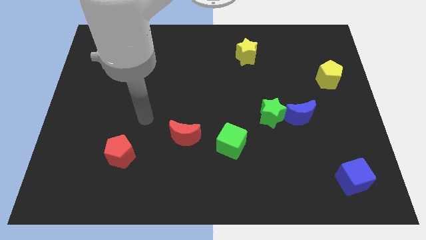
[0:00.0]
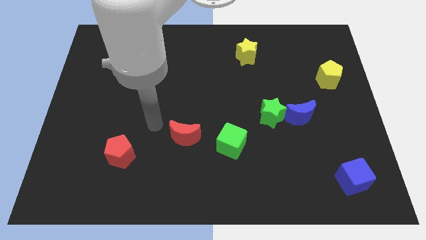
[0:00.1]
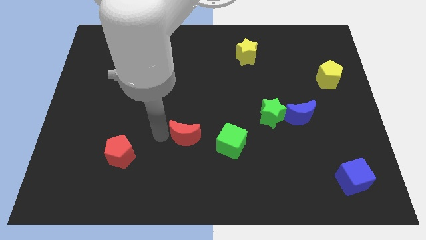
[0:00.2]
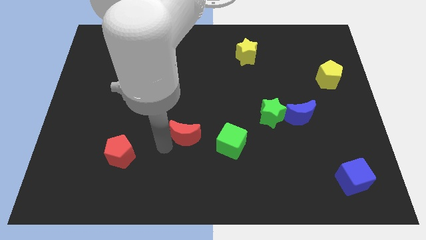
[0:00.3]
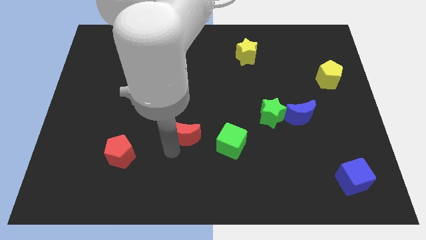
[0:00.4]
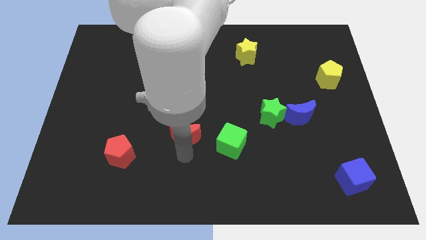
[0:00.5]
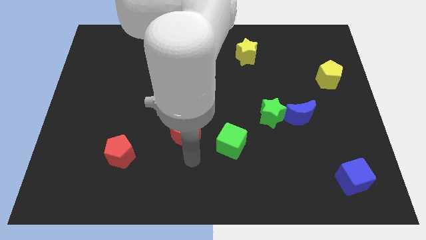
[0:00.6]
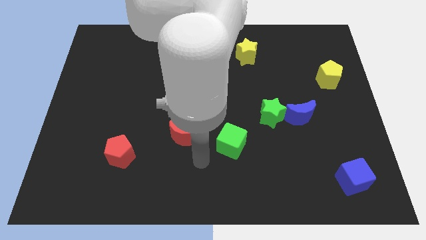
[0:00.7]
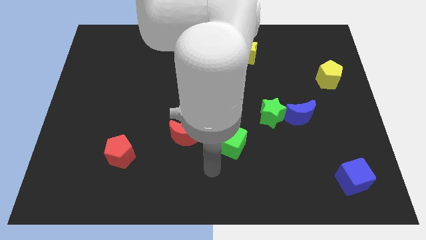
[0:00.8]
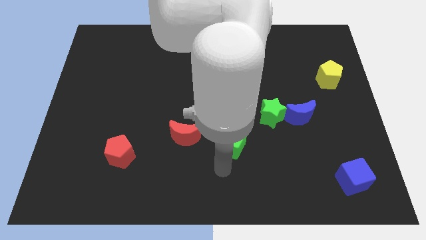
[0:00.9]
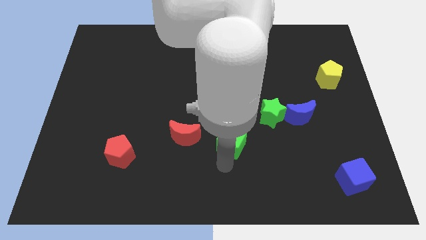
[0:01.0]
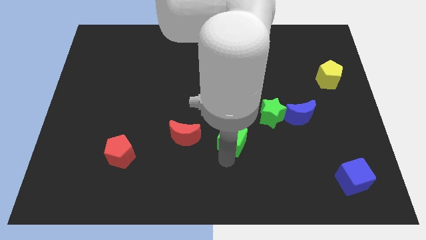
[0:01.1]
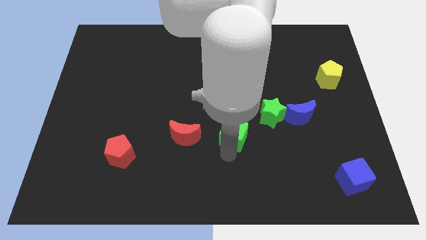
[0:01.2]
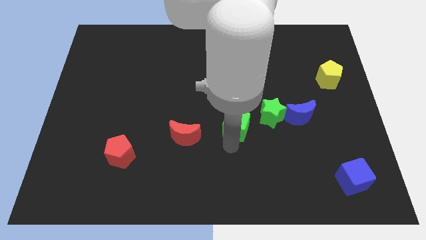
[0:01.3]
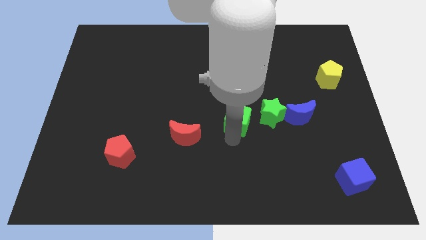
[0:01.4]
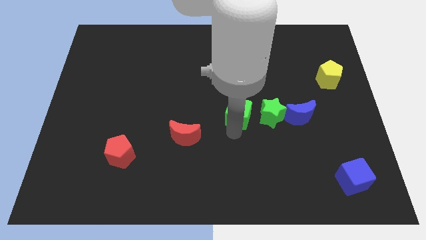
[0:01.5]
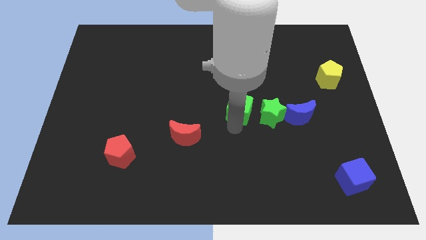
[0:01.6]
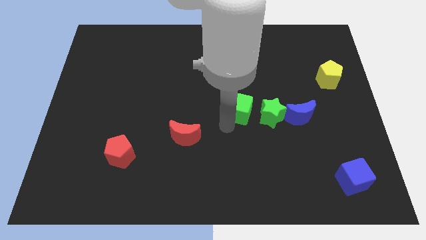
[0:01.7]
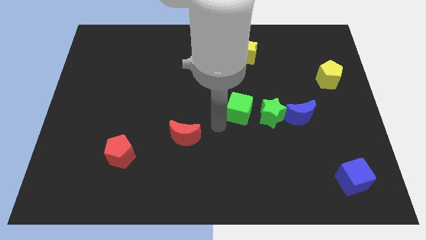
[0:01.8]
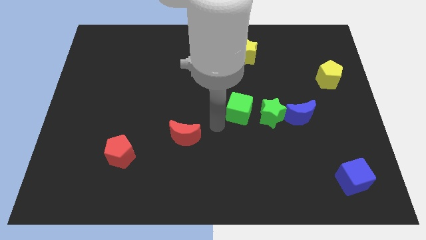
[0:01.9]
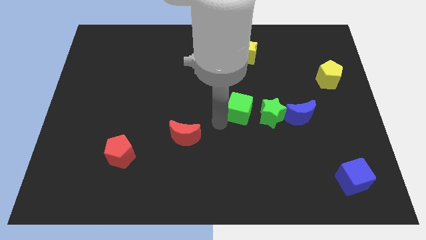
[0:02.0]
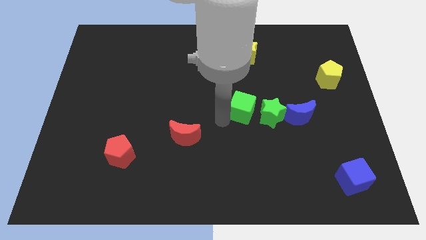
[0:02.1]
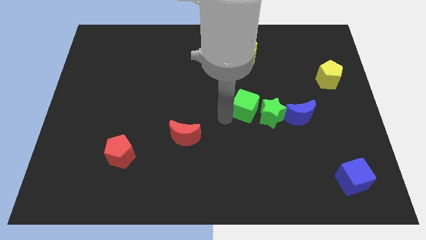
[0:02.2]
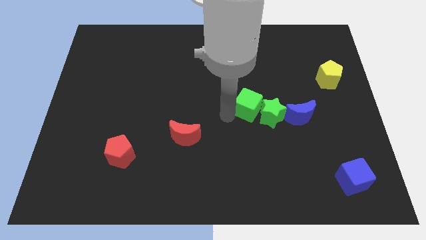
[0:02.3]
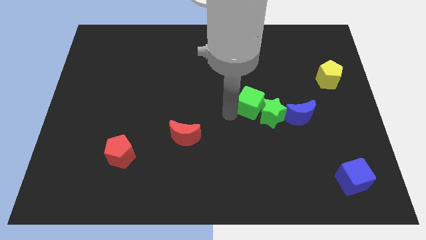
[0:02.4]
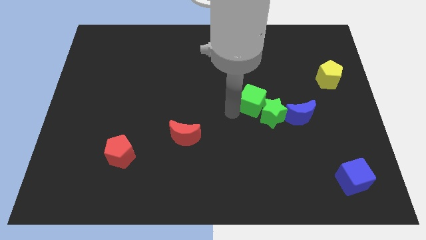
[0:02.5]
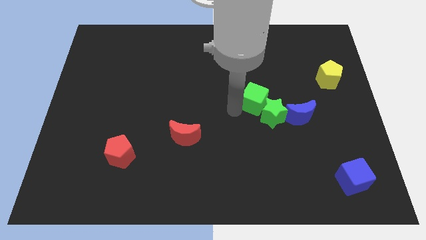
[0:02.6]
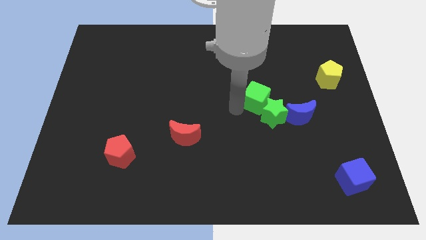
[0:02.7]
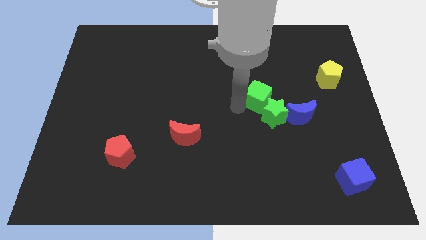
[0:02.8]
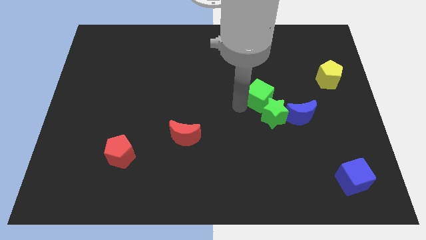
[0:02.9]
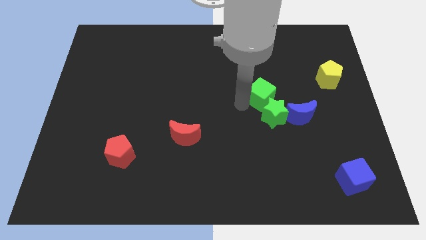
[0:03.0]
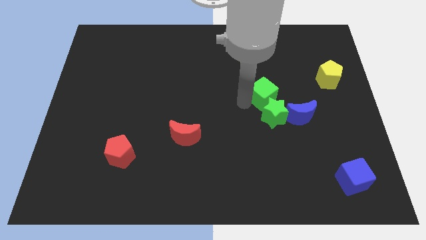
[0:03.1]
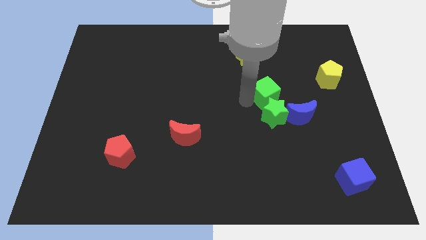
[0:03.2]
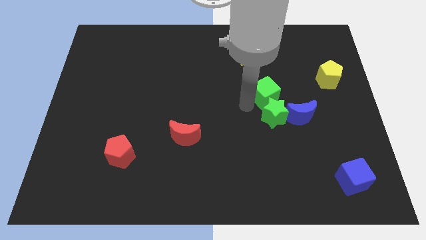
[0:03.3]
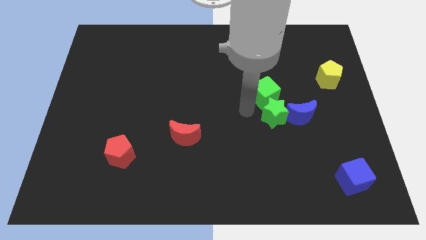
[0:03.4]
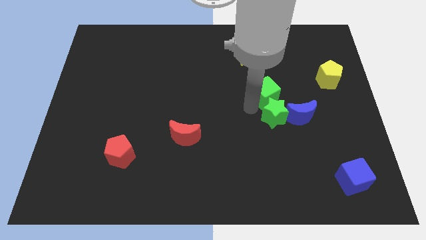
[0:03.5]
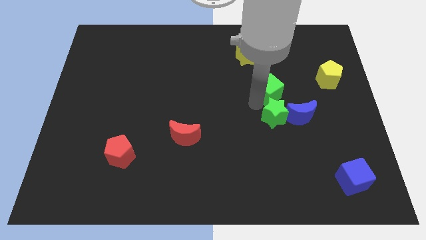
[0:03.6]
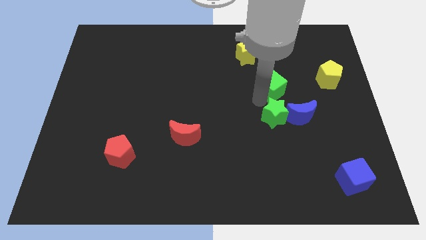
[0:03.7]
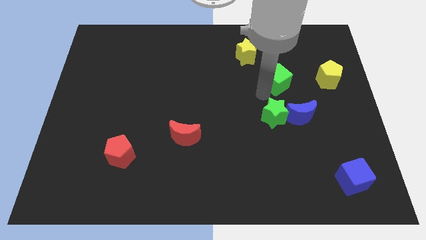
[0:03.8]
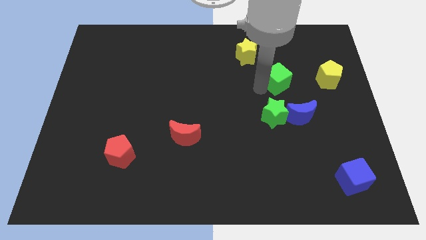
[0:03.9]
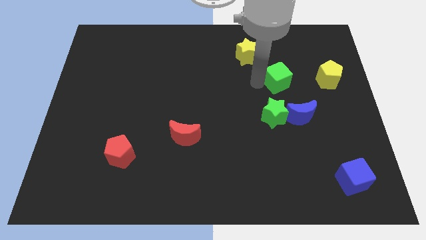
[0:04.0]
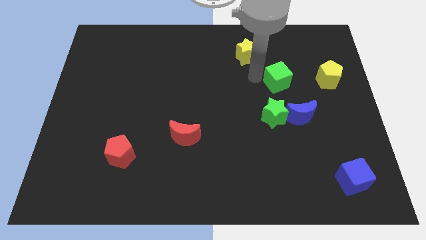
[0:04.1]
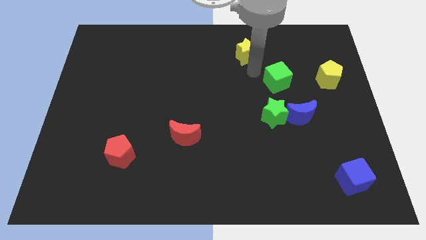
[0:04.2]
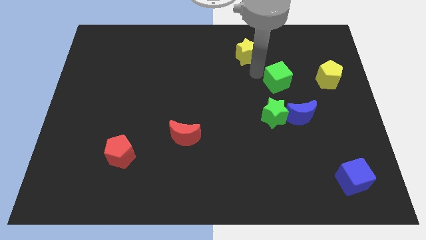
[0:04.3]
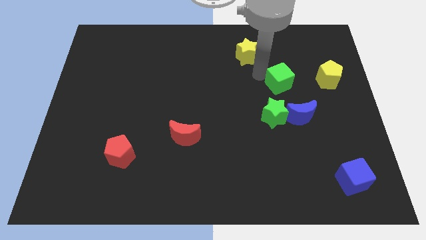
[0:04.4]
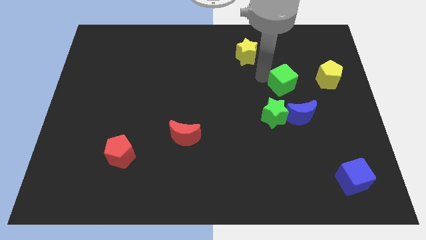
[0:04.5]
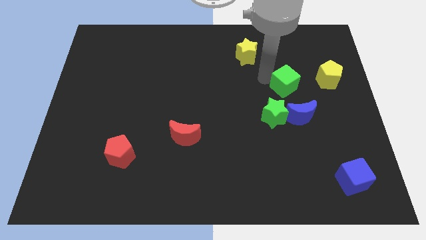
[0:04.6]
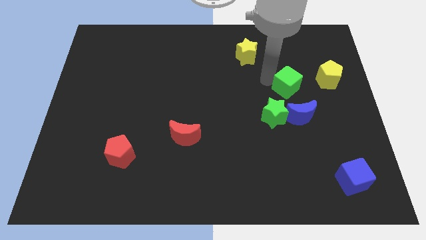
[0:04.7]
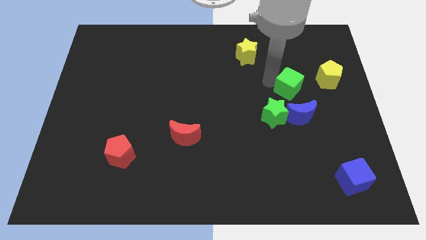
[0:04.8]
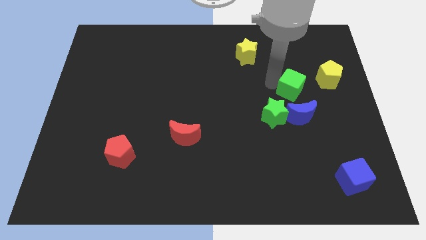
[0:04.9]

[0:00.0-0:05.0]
put the green cube diagonally down and to the left of the yellow pentagon

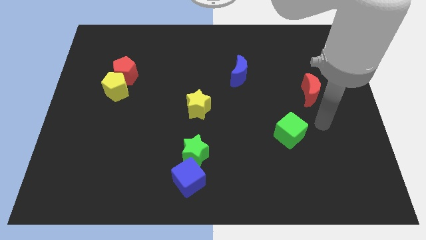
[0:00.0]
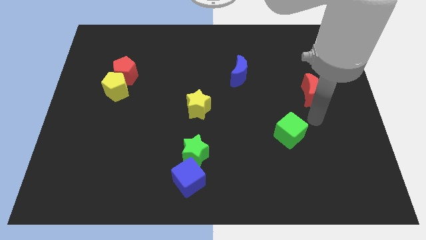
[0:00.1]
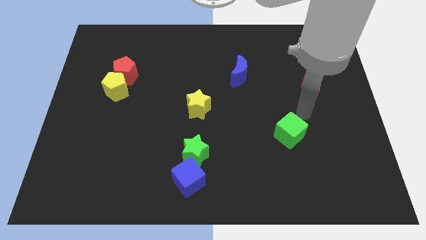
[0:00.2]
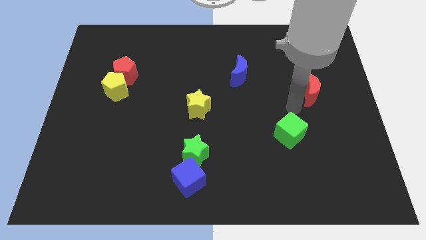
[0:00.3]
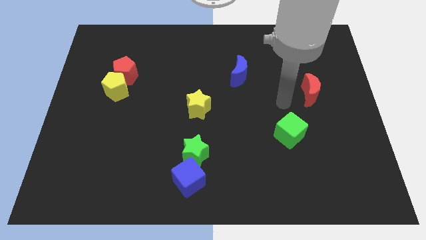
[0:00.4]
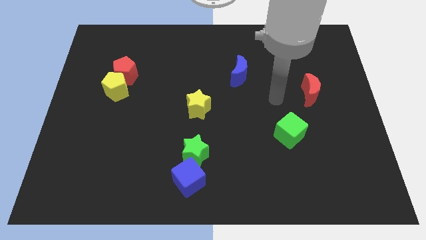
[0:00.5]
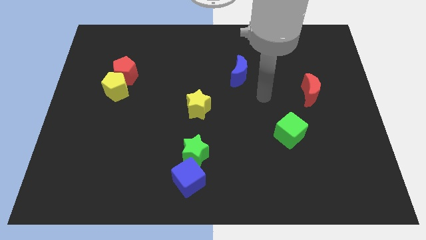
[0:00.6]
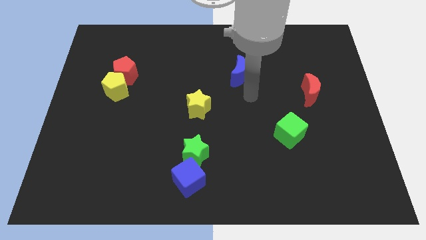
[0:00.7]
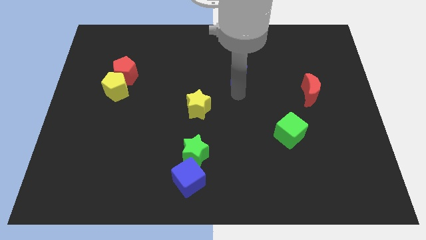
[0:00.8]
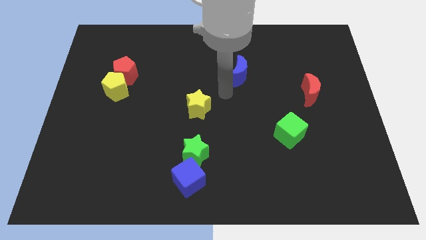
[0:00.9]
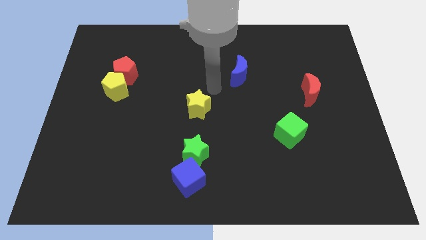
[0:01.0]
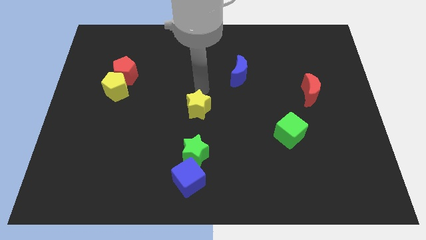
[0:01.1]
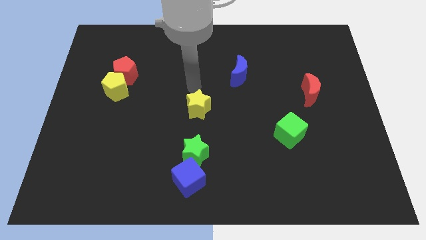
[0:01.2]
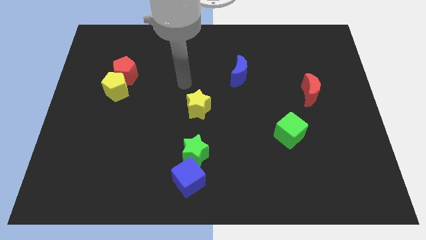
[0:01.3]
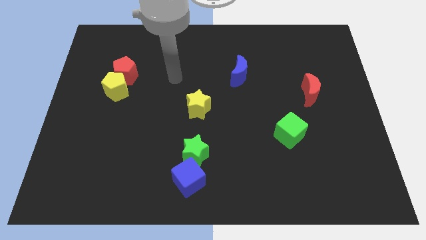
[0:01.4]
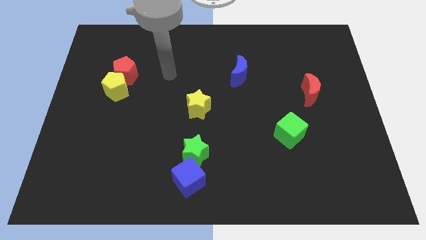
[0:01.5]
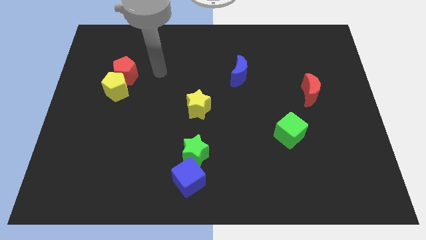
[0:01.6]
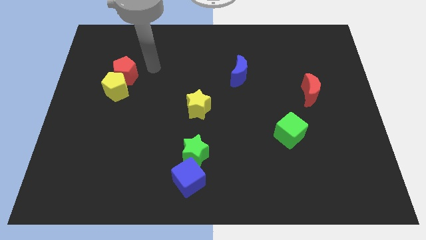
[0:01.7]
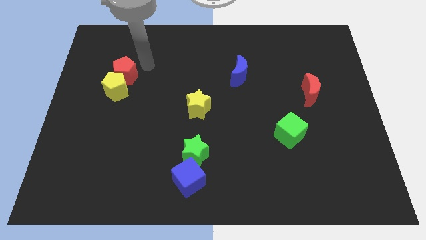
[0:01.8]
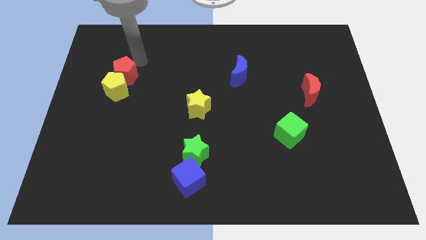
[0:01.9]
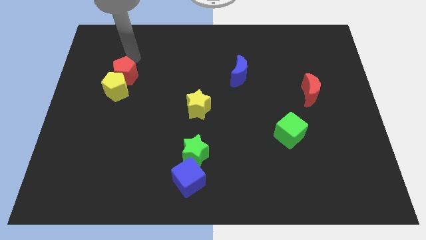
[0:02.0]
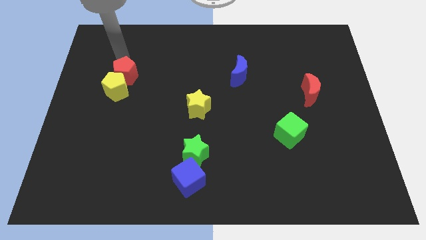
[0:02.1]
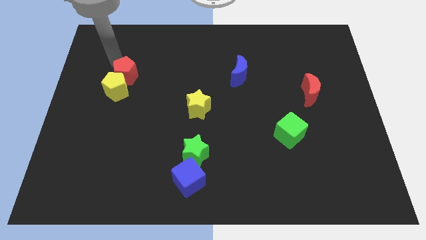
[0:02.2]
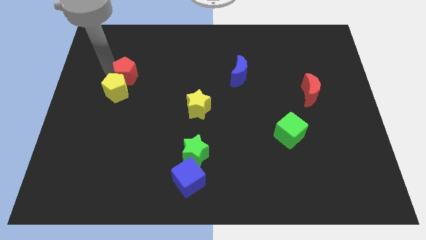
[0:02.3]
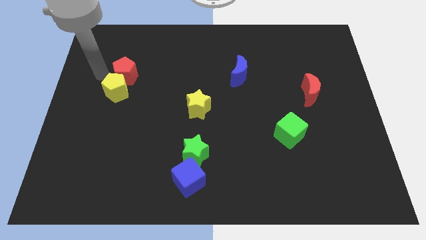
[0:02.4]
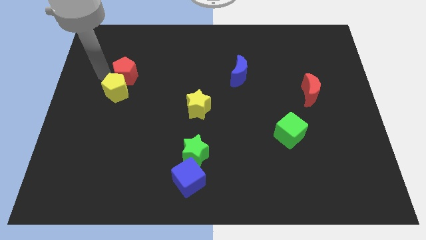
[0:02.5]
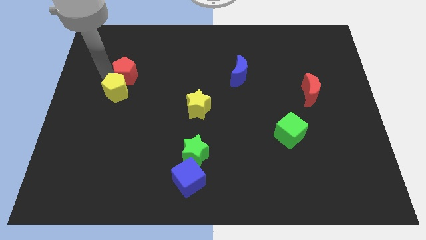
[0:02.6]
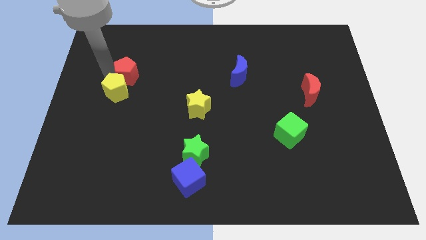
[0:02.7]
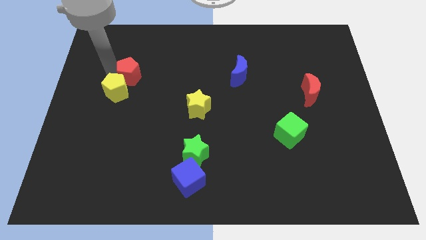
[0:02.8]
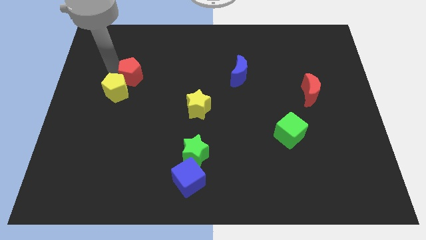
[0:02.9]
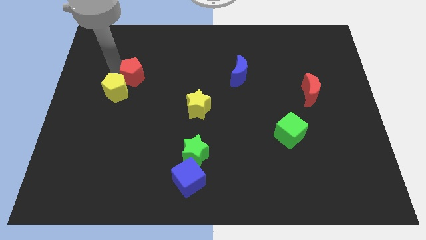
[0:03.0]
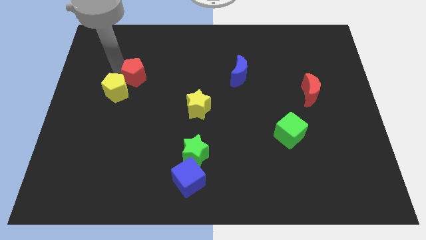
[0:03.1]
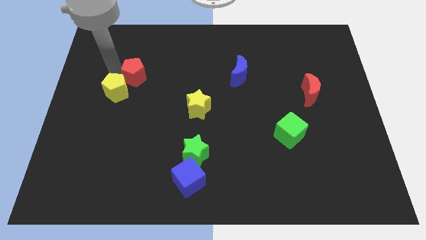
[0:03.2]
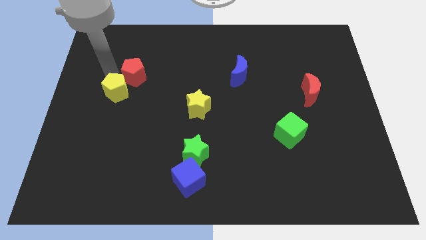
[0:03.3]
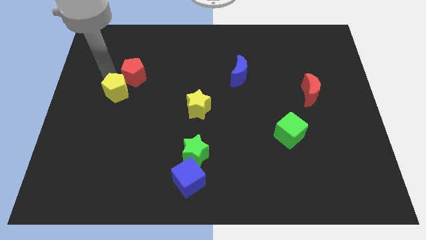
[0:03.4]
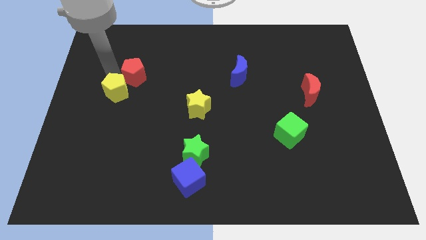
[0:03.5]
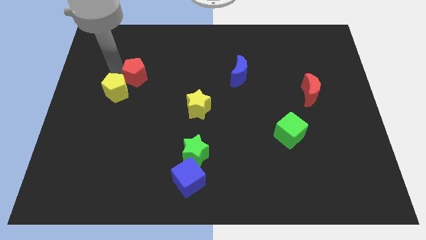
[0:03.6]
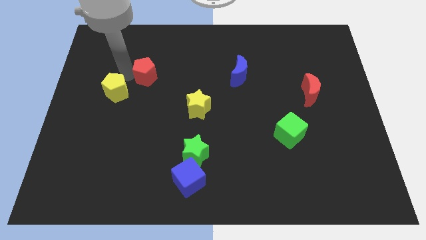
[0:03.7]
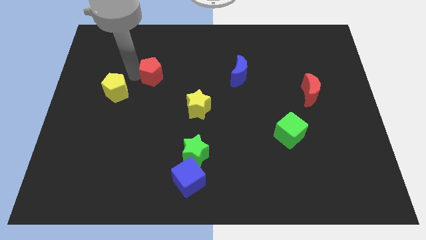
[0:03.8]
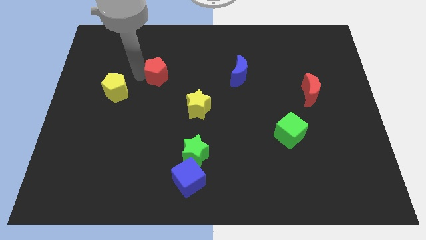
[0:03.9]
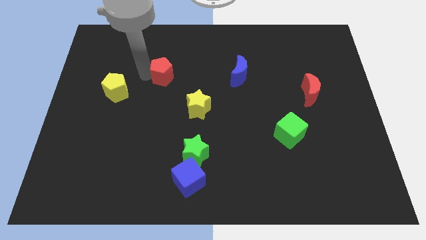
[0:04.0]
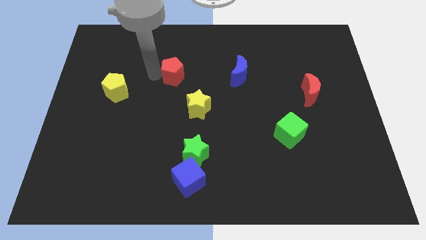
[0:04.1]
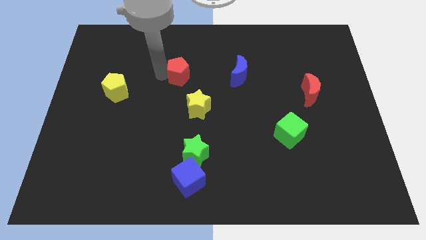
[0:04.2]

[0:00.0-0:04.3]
push the red pentagon just left of the blue moon
